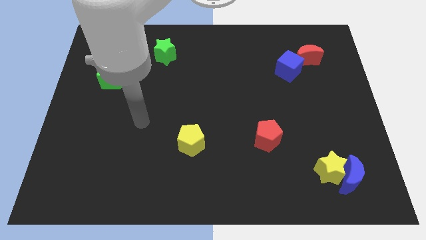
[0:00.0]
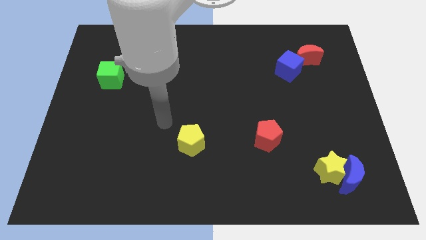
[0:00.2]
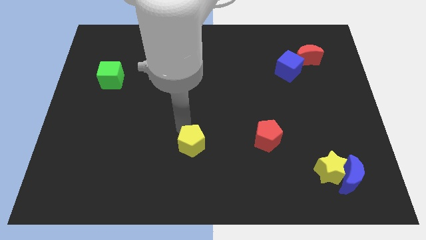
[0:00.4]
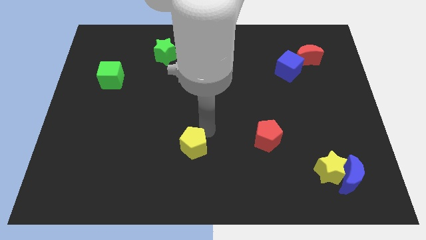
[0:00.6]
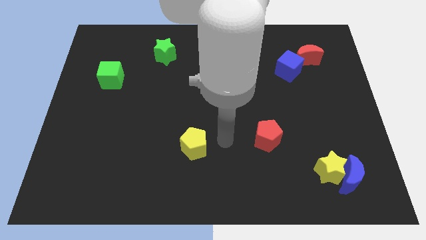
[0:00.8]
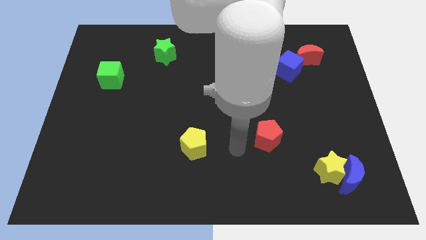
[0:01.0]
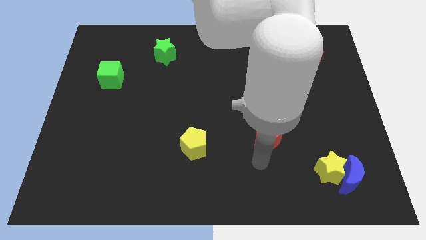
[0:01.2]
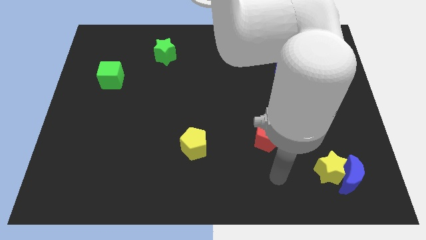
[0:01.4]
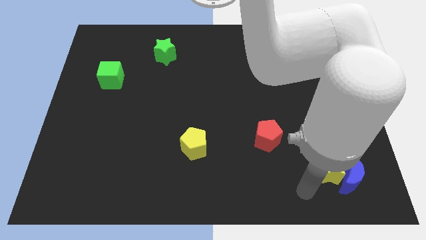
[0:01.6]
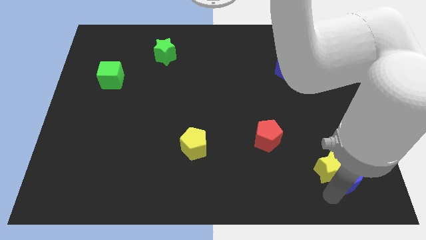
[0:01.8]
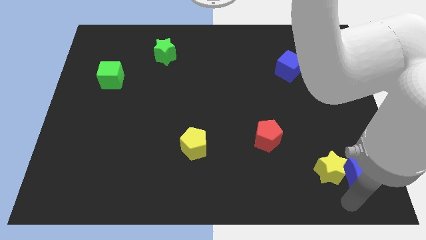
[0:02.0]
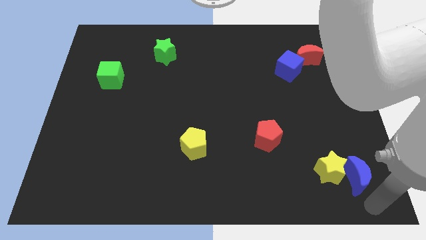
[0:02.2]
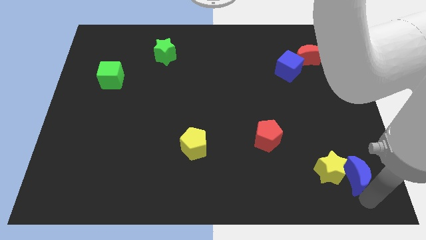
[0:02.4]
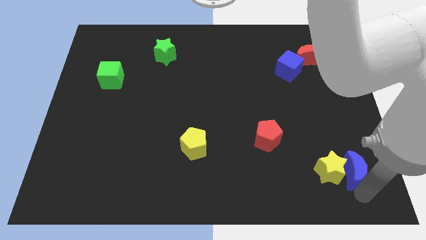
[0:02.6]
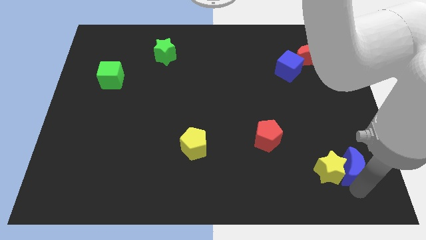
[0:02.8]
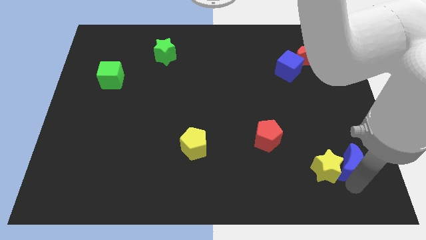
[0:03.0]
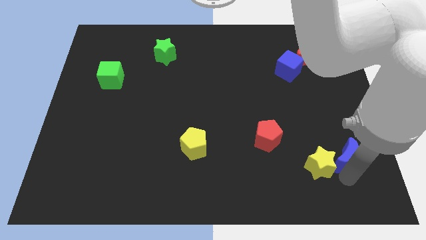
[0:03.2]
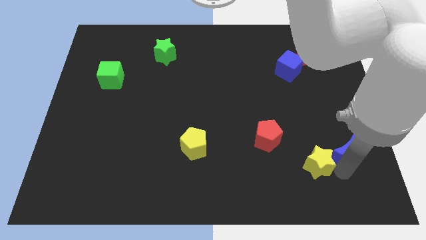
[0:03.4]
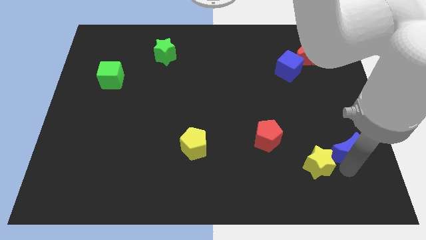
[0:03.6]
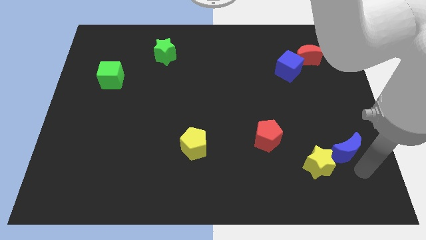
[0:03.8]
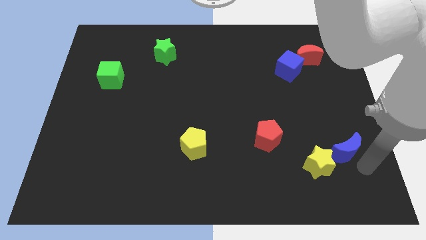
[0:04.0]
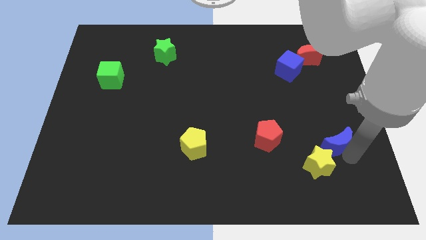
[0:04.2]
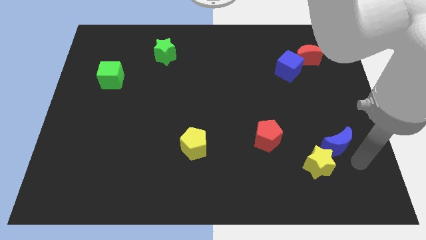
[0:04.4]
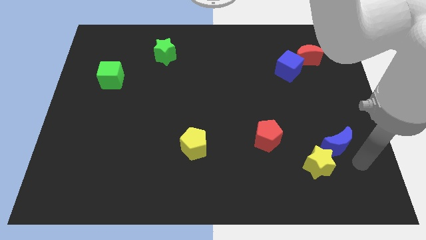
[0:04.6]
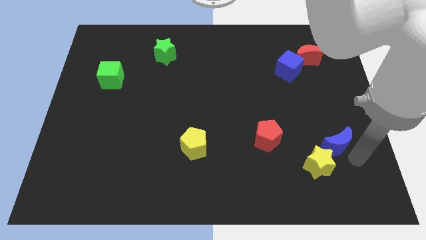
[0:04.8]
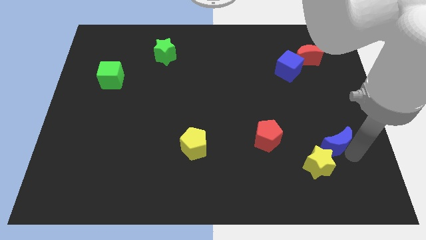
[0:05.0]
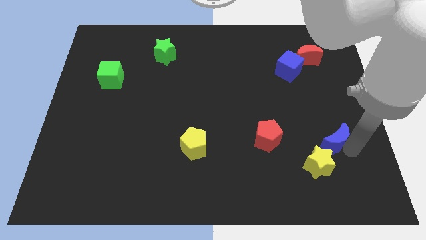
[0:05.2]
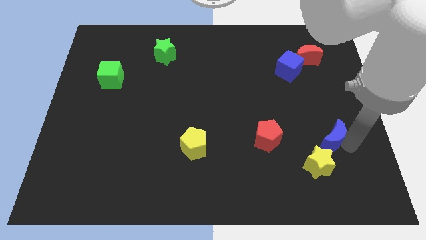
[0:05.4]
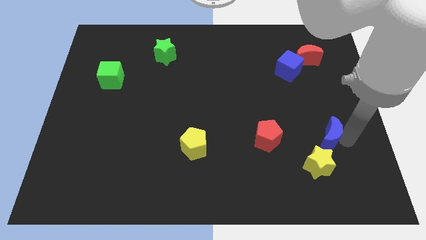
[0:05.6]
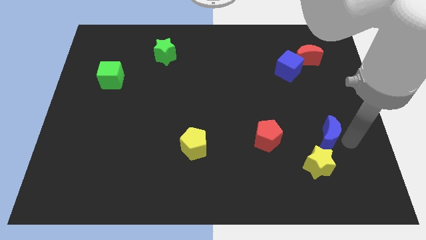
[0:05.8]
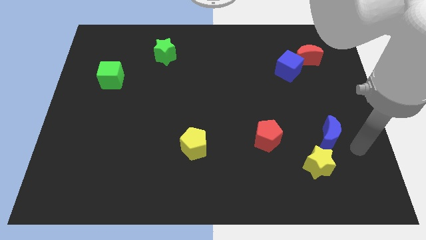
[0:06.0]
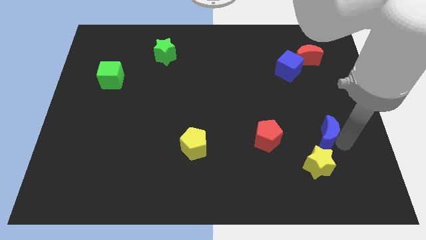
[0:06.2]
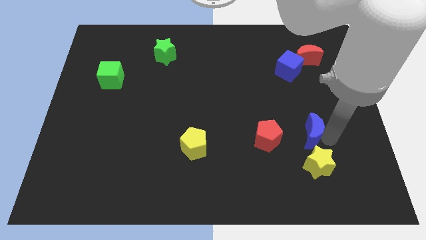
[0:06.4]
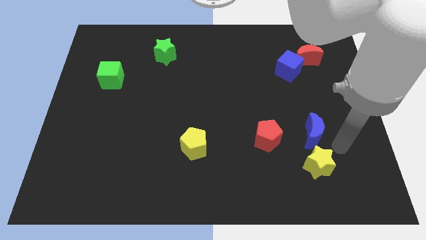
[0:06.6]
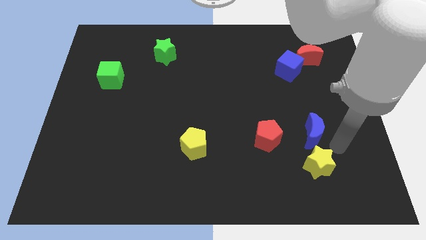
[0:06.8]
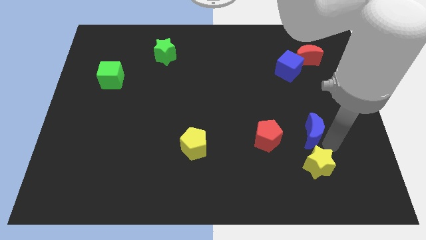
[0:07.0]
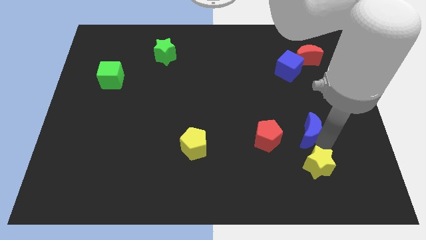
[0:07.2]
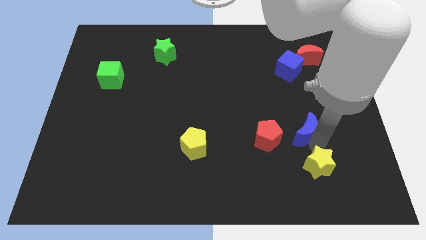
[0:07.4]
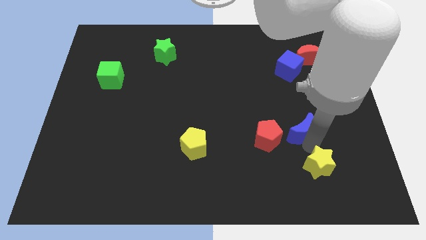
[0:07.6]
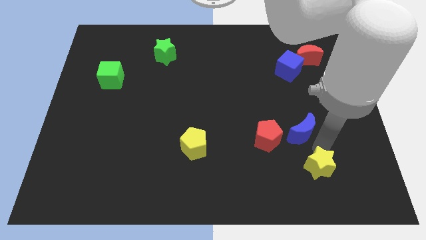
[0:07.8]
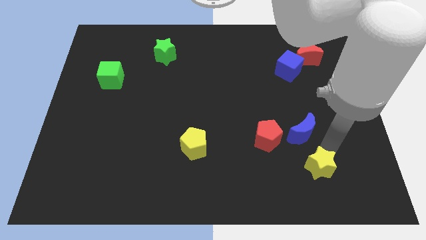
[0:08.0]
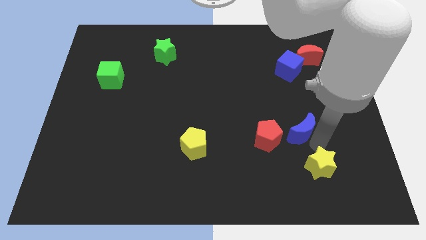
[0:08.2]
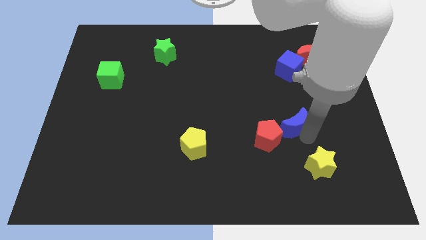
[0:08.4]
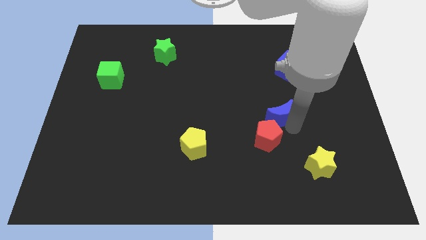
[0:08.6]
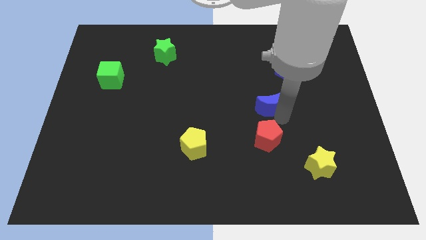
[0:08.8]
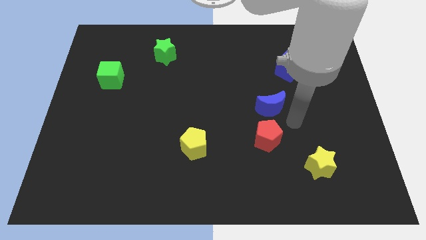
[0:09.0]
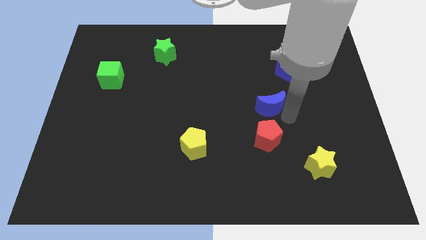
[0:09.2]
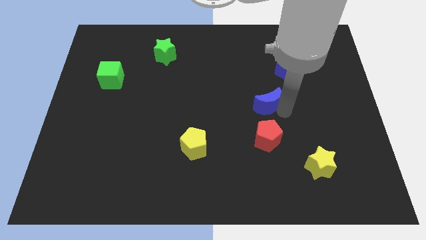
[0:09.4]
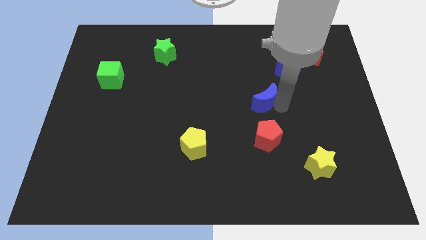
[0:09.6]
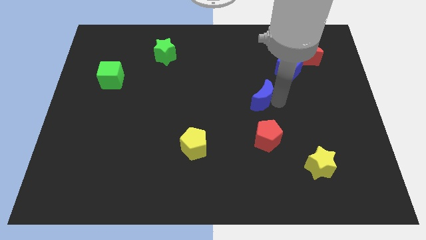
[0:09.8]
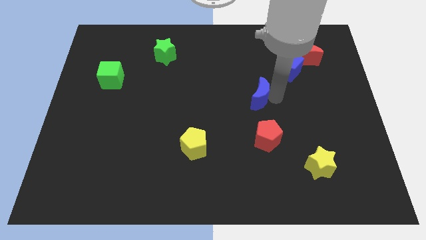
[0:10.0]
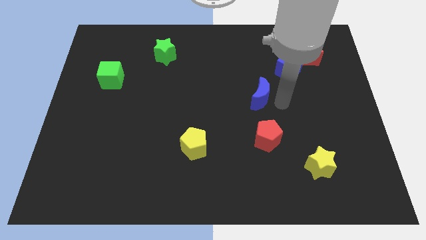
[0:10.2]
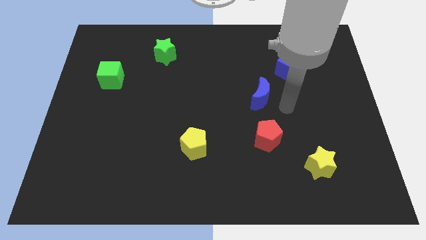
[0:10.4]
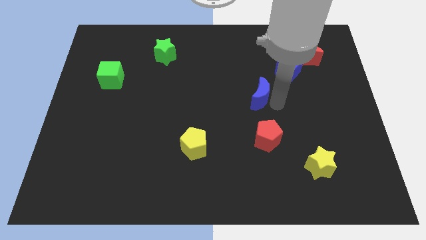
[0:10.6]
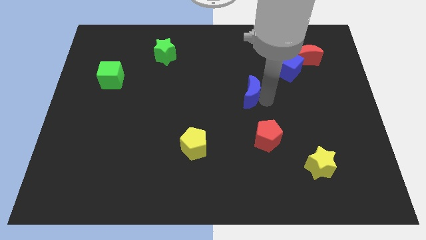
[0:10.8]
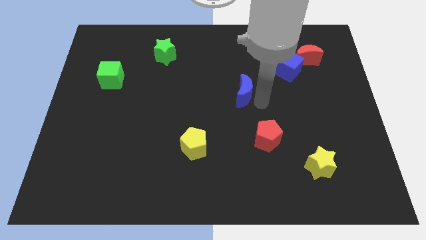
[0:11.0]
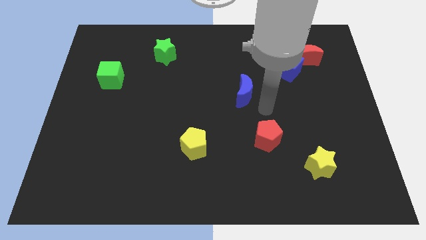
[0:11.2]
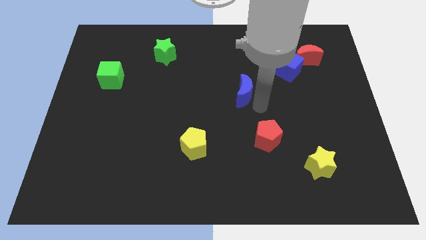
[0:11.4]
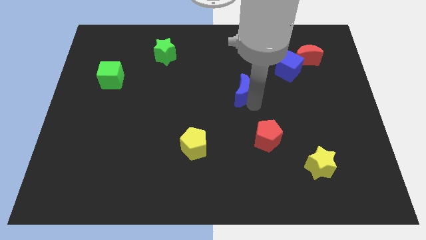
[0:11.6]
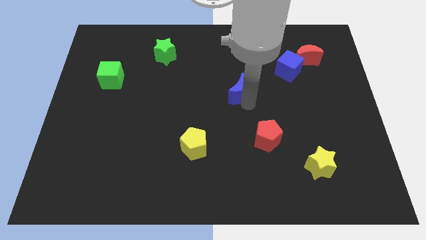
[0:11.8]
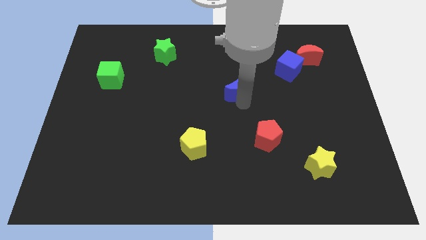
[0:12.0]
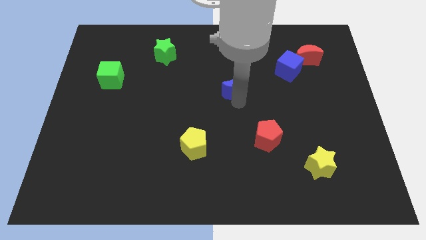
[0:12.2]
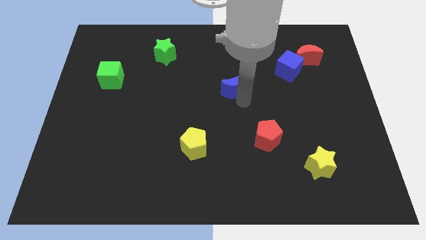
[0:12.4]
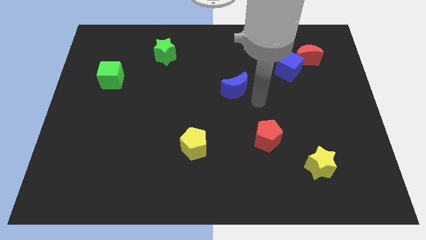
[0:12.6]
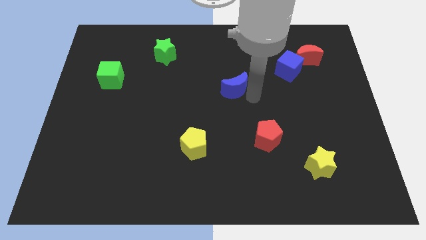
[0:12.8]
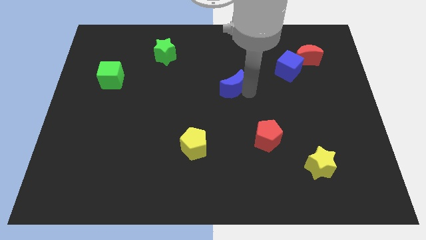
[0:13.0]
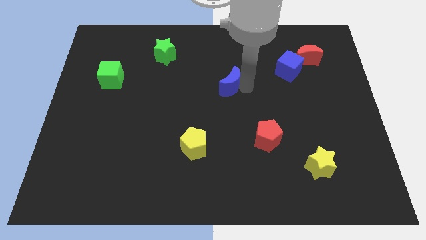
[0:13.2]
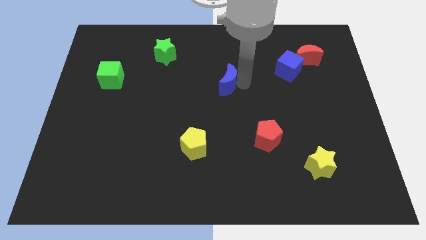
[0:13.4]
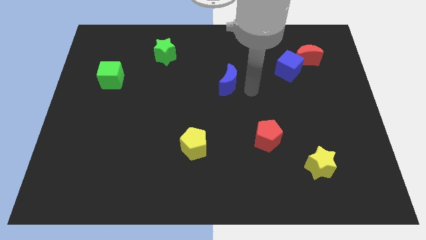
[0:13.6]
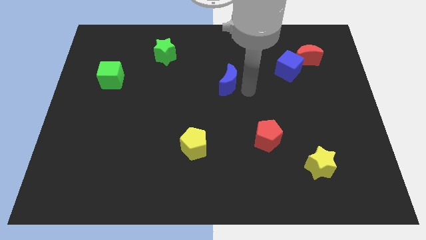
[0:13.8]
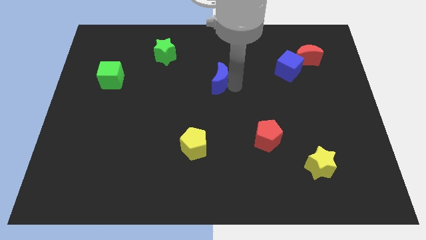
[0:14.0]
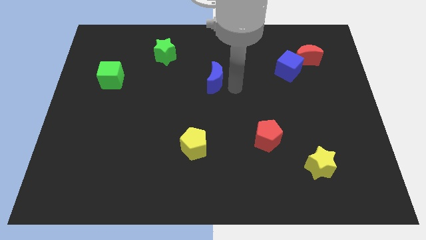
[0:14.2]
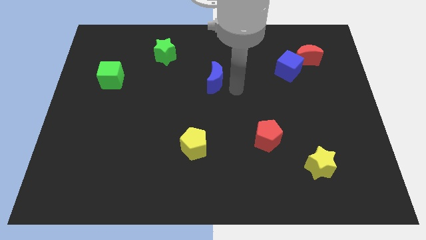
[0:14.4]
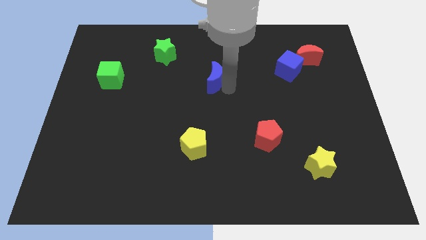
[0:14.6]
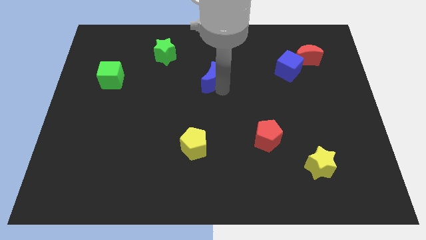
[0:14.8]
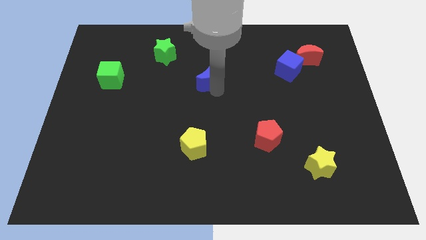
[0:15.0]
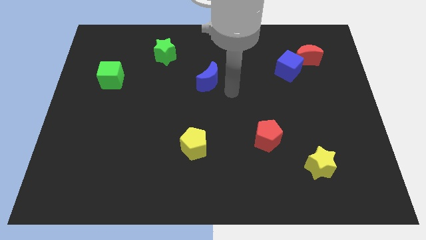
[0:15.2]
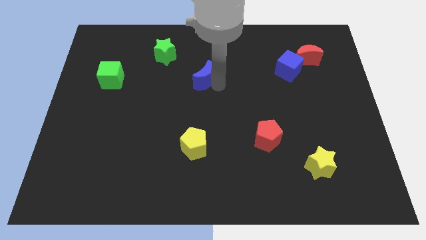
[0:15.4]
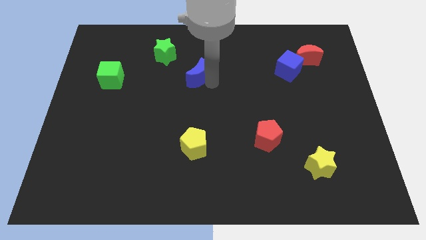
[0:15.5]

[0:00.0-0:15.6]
push the blue moon diagonally down and to the right of the green star

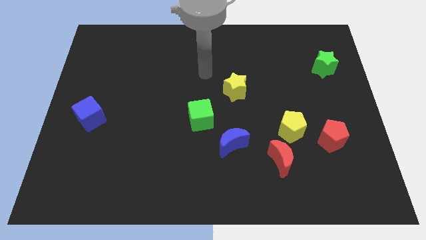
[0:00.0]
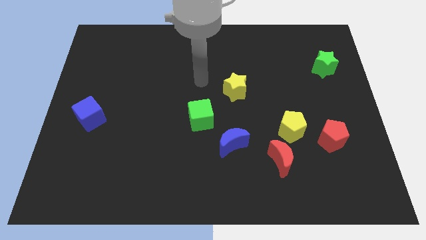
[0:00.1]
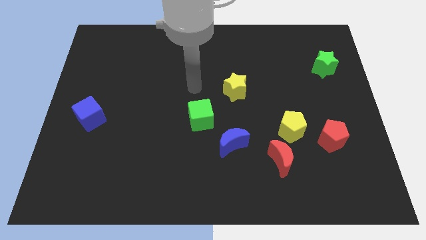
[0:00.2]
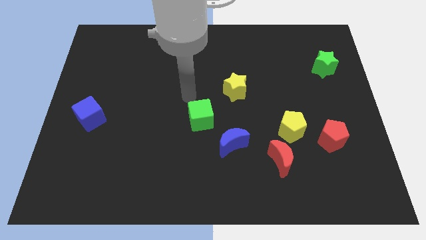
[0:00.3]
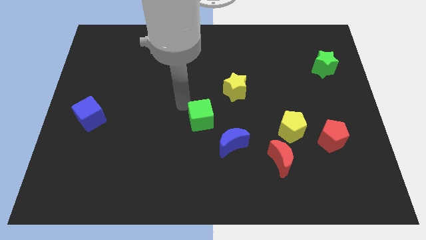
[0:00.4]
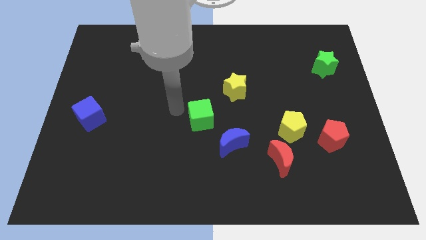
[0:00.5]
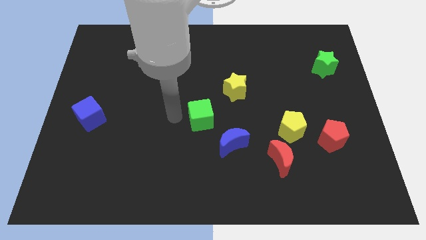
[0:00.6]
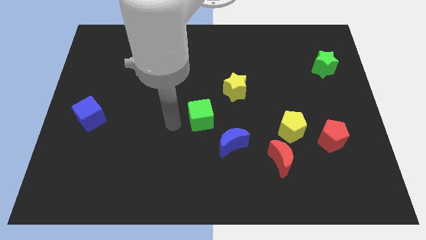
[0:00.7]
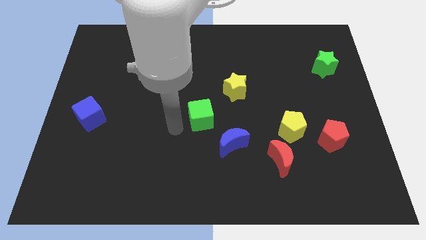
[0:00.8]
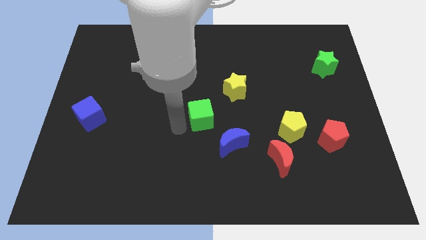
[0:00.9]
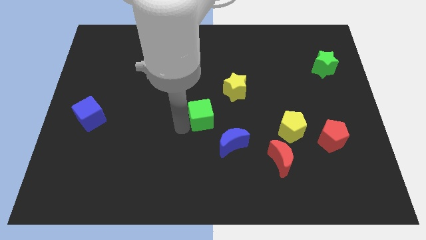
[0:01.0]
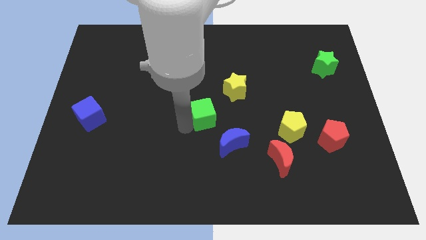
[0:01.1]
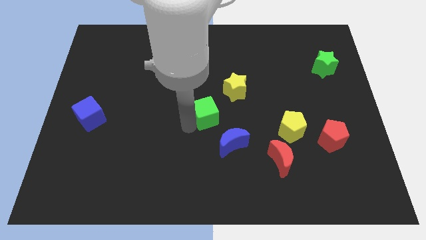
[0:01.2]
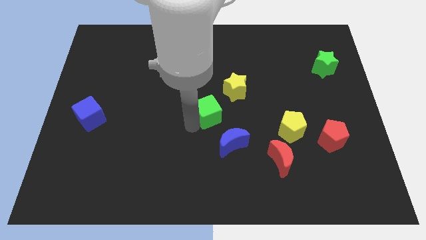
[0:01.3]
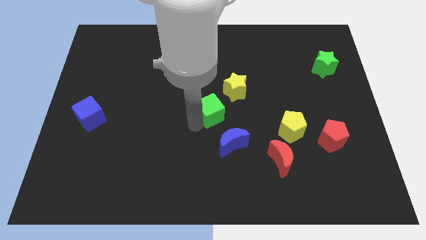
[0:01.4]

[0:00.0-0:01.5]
slide the green cube above the blue moon
